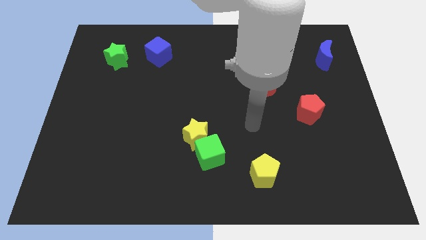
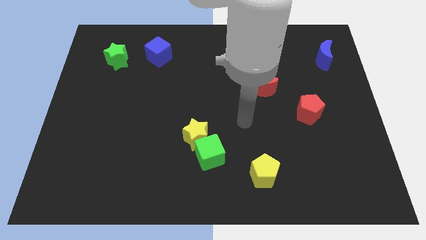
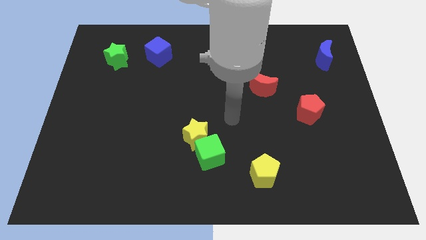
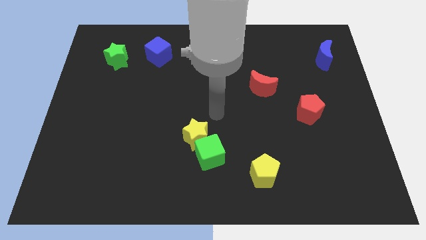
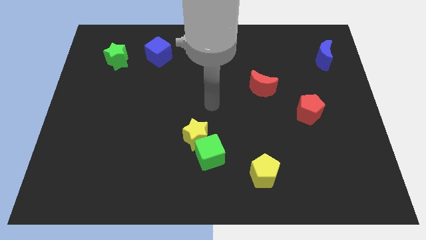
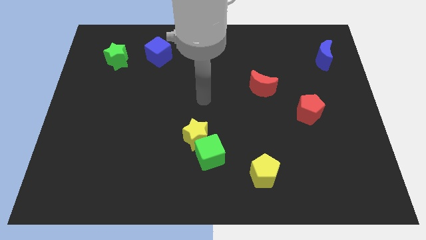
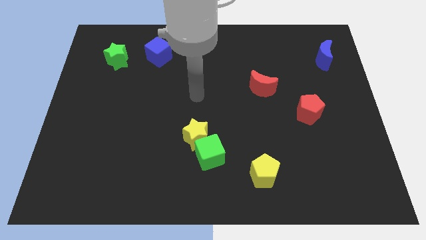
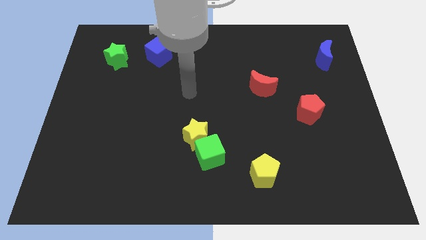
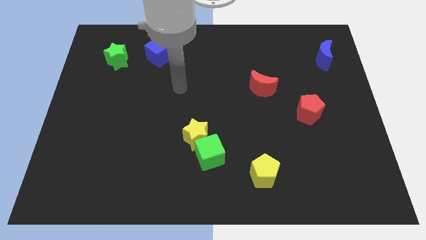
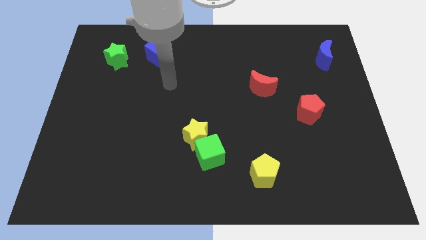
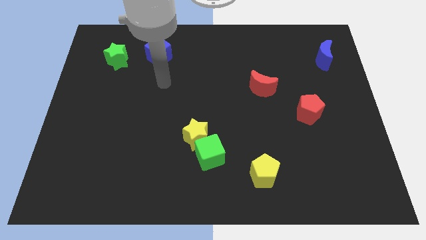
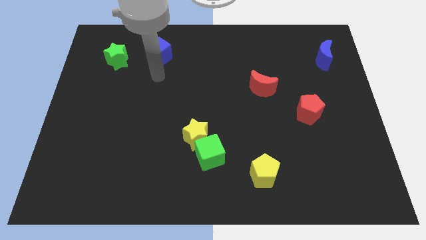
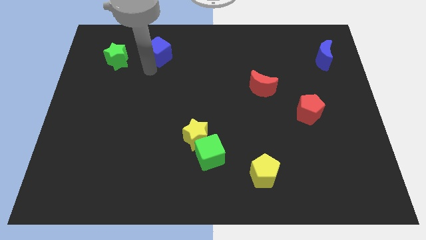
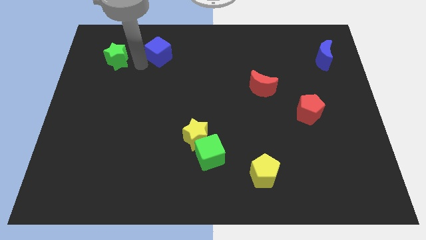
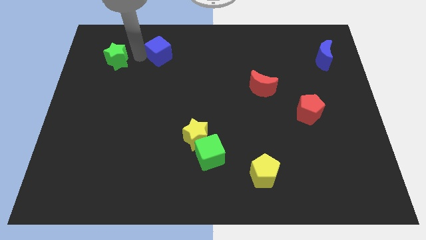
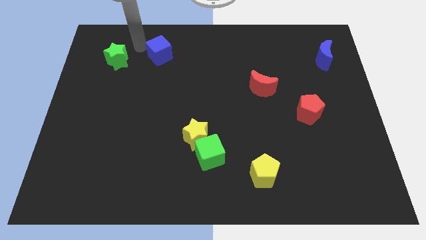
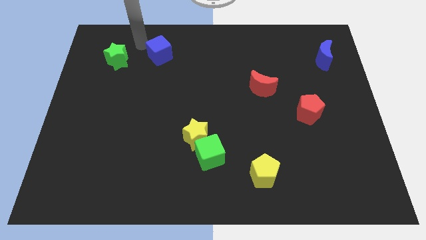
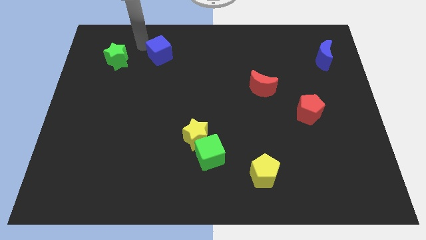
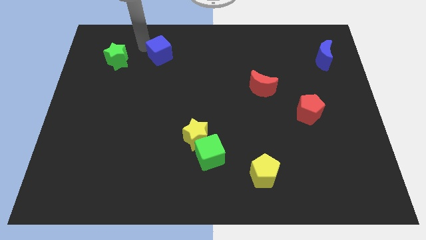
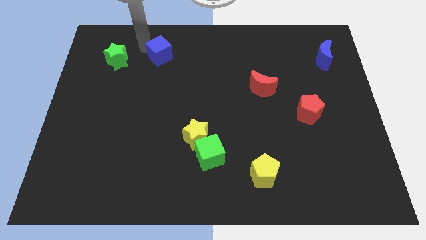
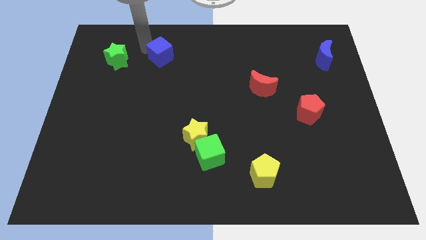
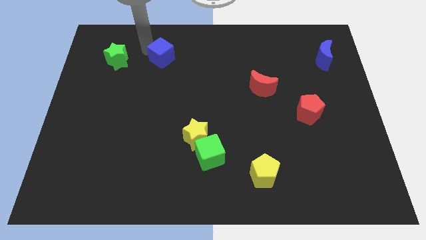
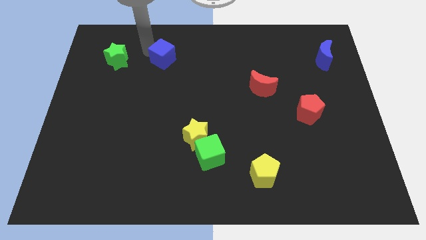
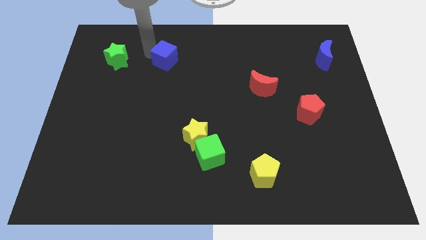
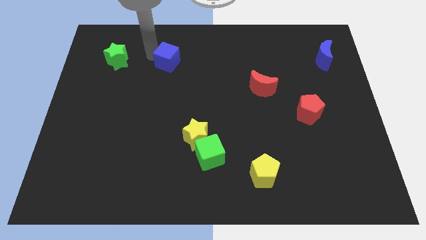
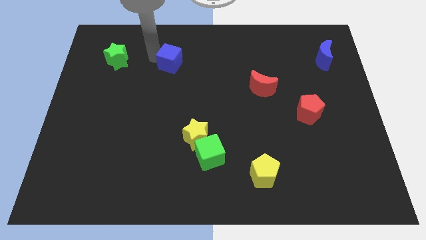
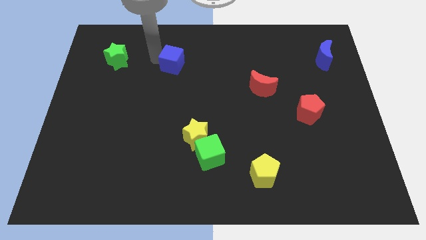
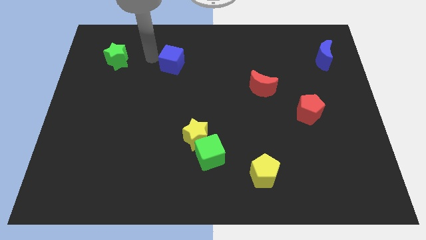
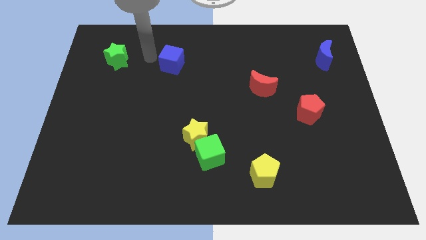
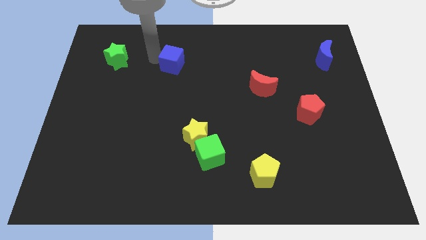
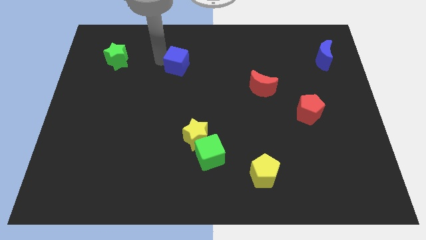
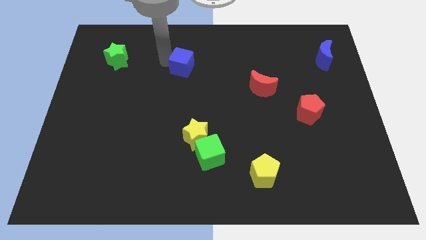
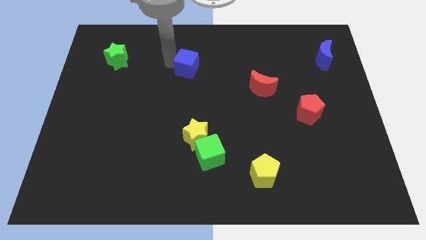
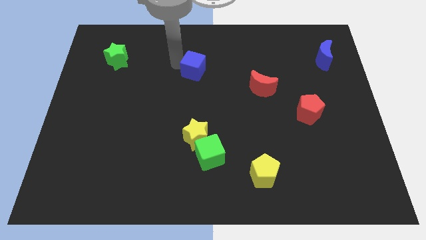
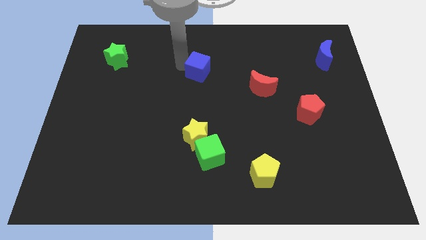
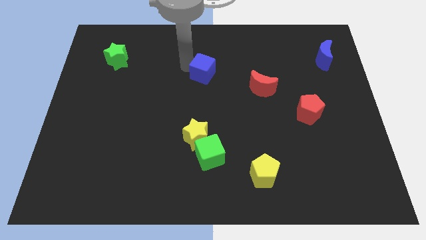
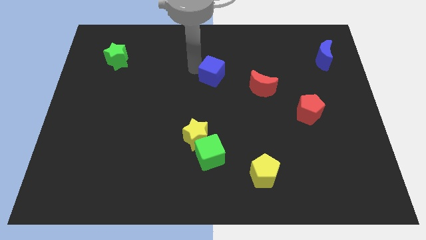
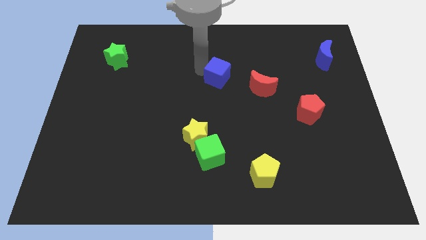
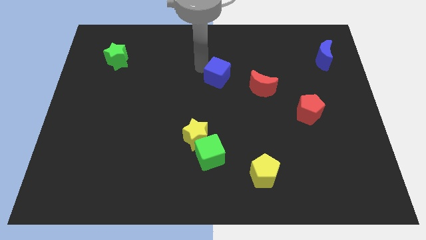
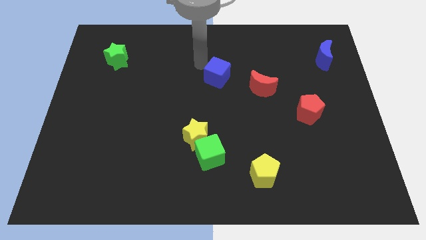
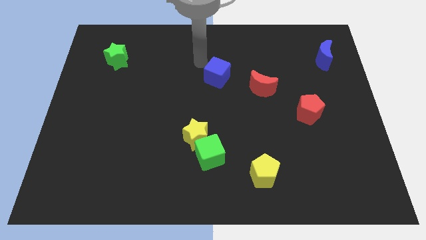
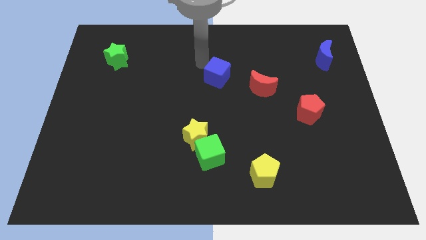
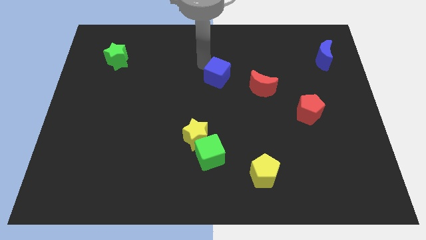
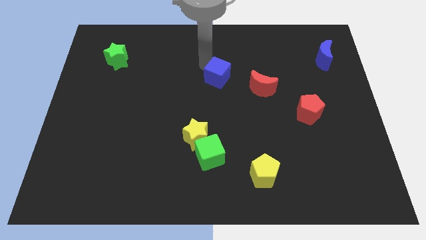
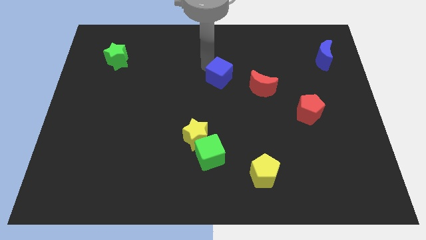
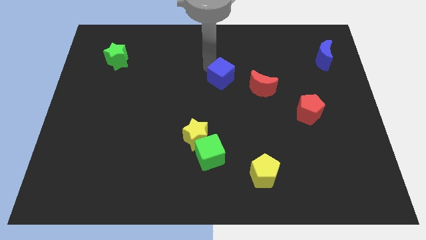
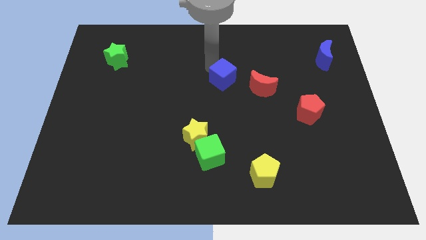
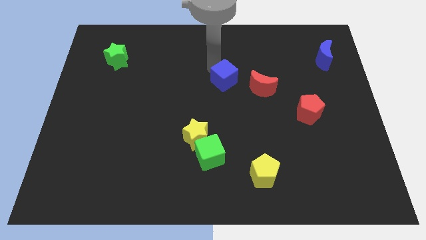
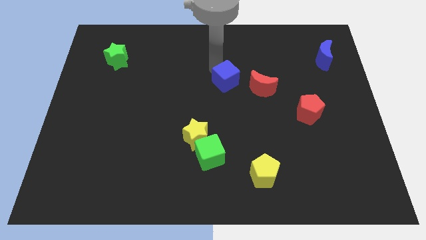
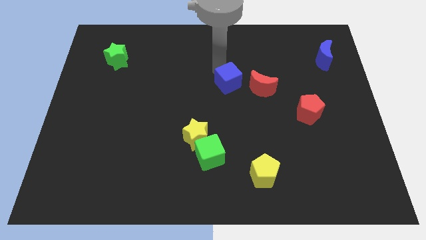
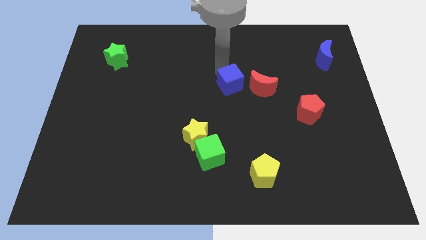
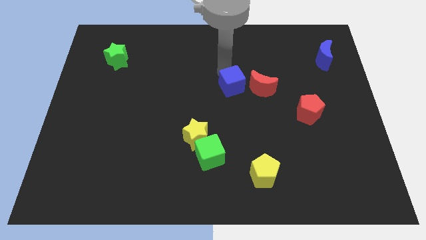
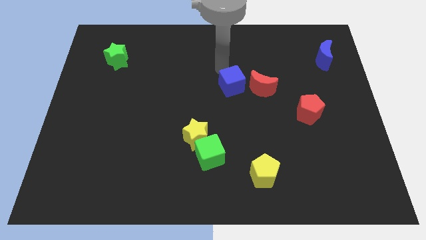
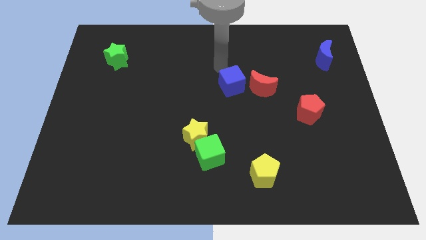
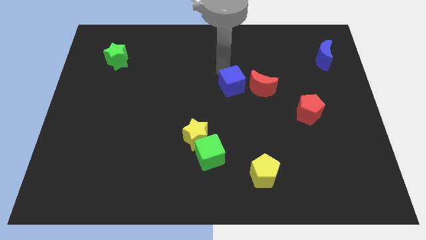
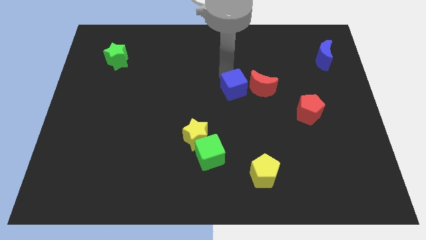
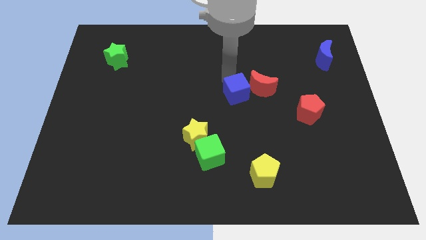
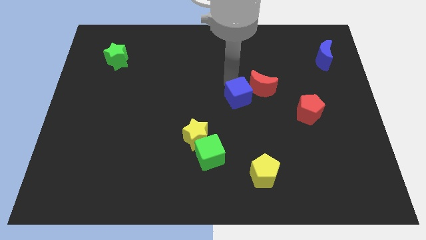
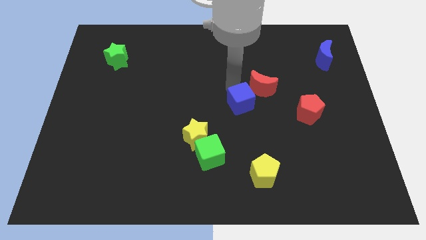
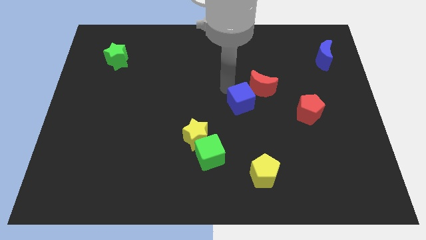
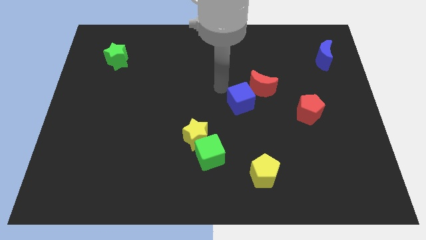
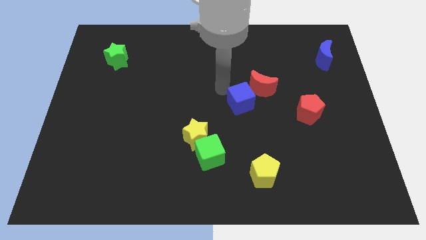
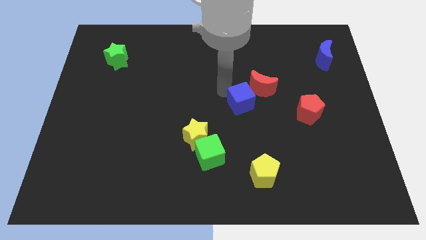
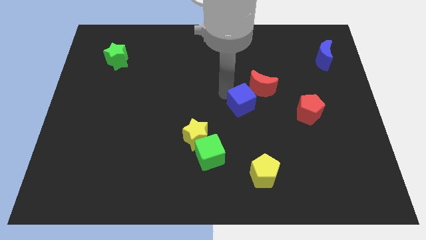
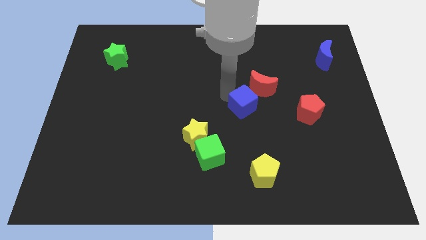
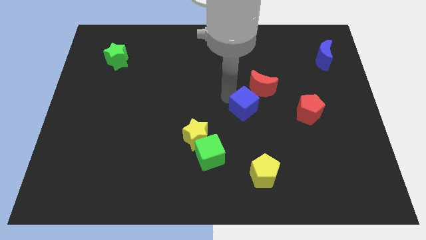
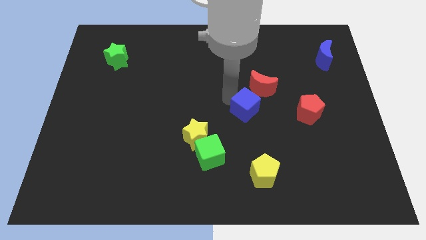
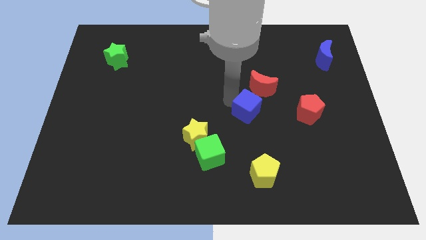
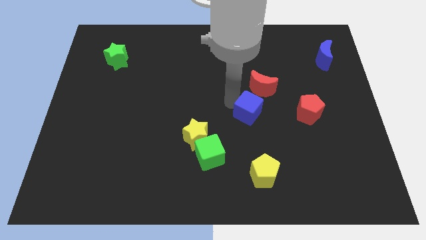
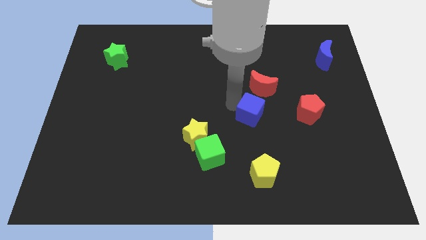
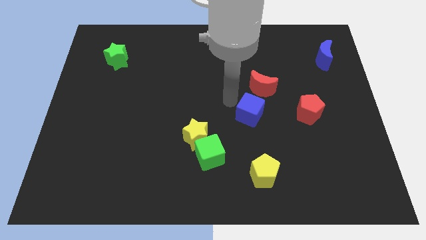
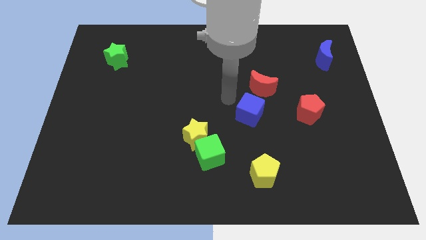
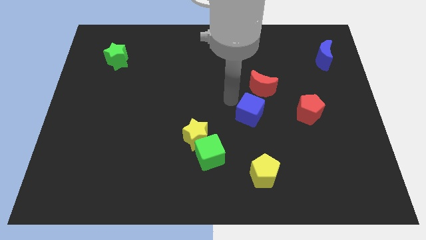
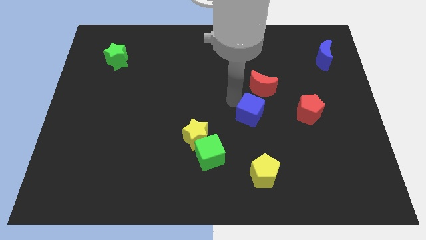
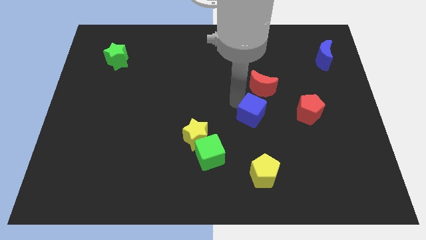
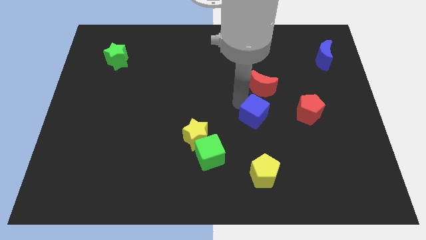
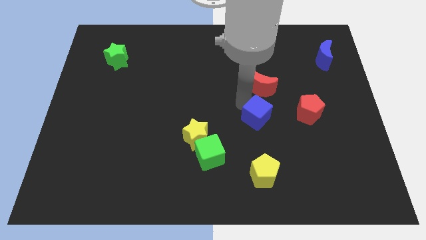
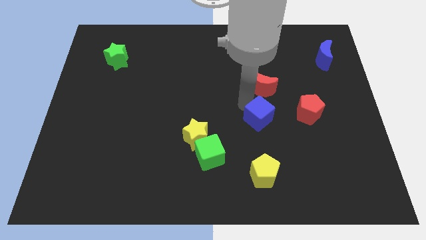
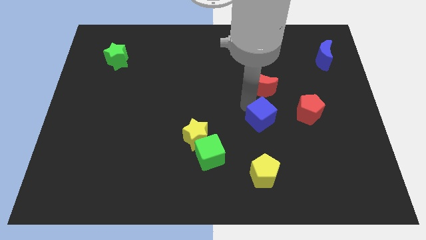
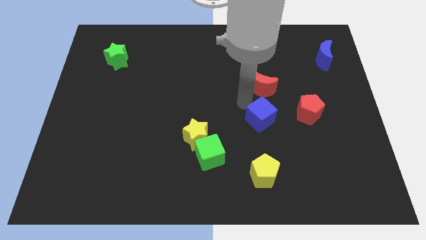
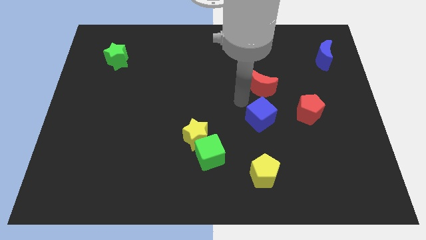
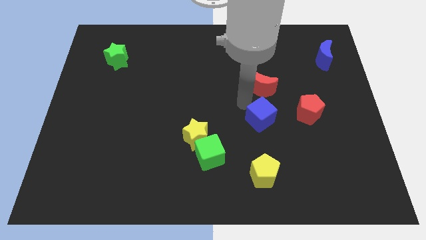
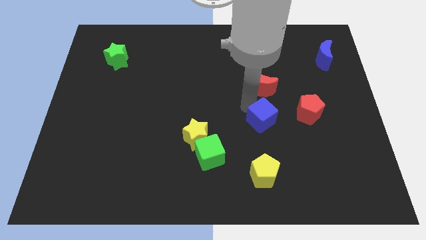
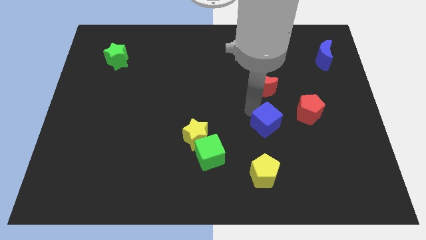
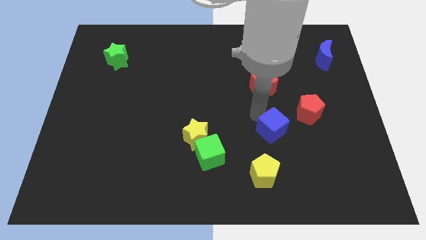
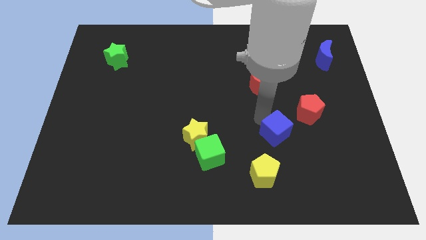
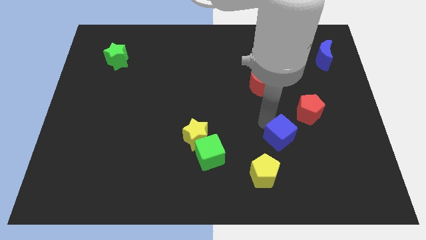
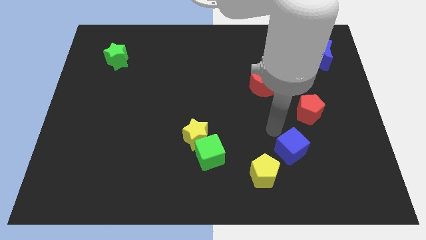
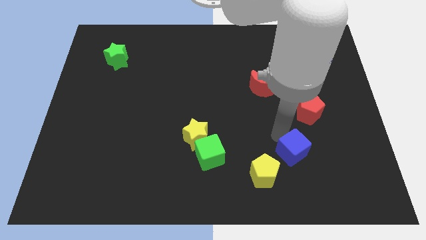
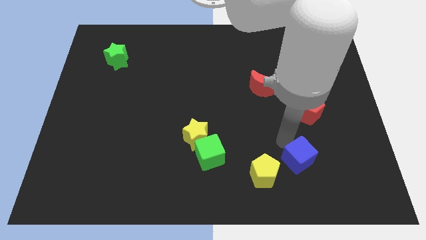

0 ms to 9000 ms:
slide the blue cube right of the yellow pentagon
